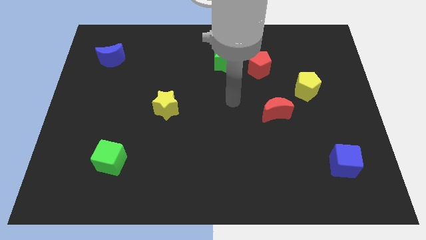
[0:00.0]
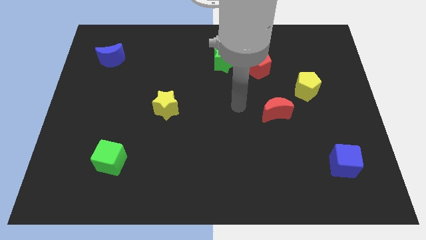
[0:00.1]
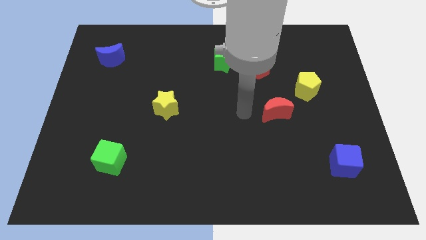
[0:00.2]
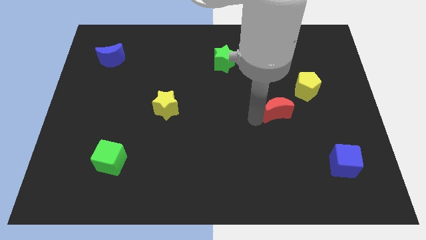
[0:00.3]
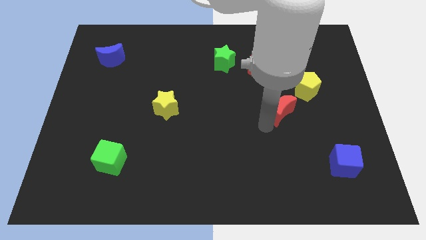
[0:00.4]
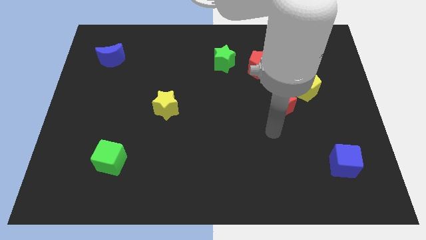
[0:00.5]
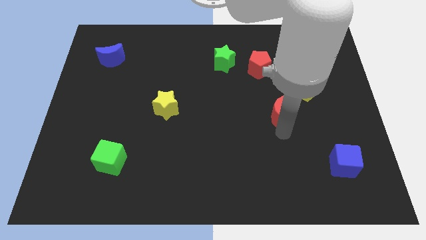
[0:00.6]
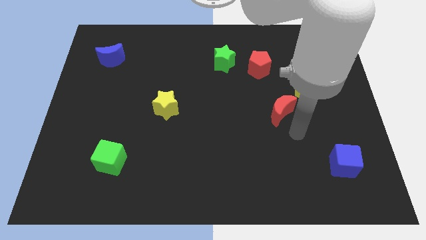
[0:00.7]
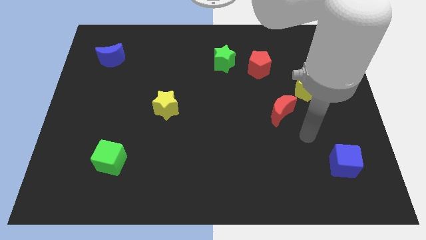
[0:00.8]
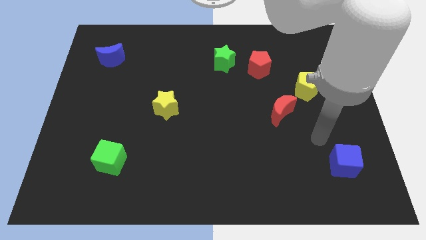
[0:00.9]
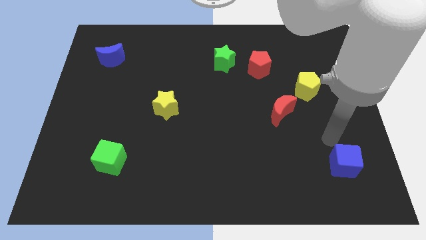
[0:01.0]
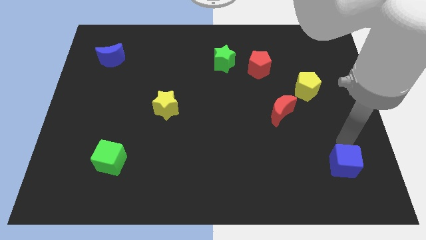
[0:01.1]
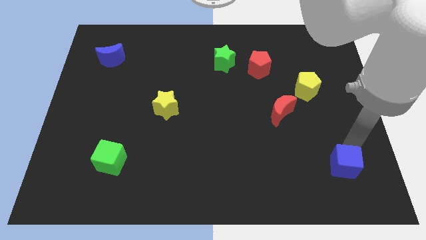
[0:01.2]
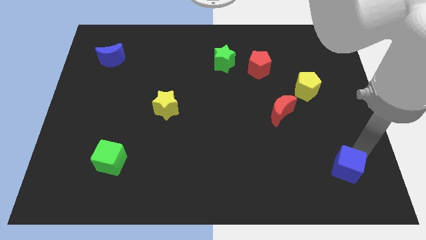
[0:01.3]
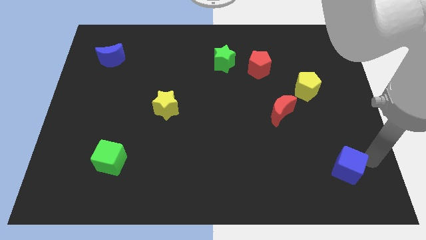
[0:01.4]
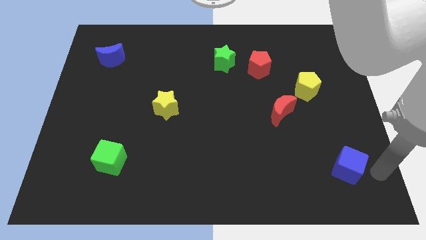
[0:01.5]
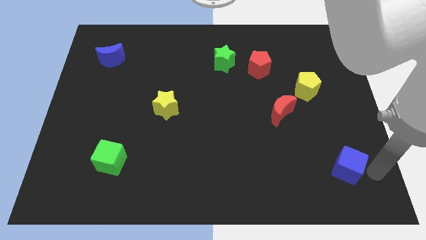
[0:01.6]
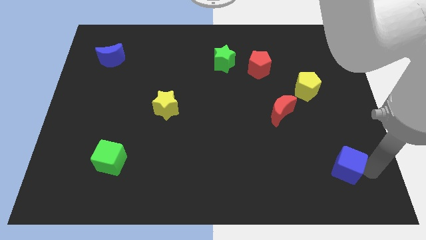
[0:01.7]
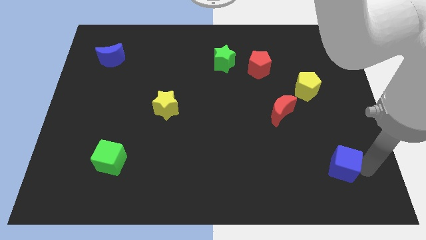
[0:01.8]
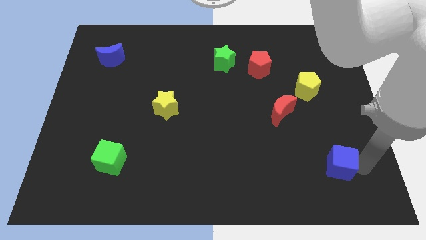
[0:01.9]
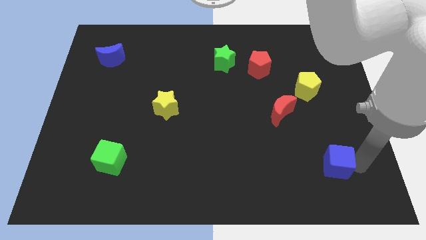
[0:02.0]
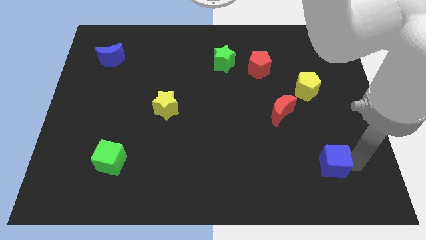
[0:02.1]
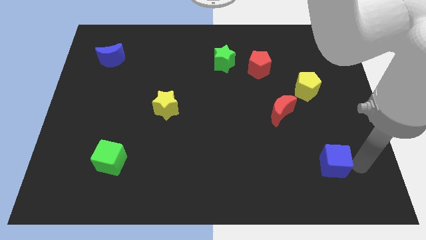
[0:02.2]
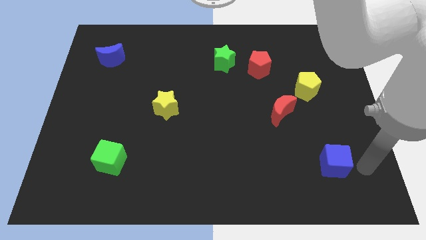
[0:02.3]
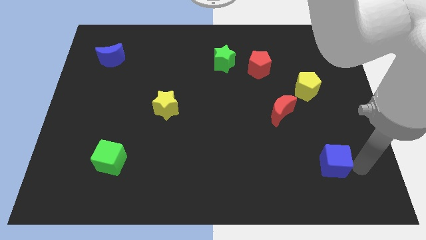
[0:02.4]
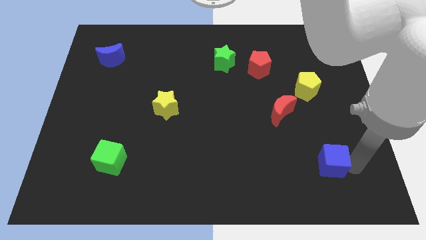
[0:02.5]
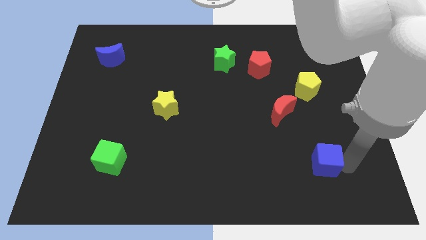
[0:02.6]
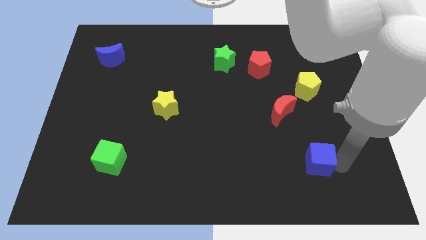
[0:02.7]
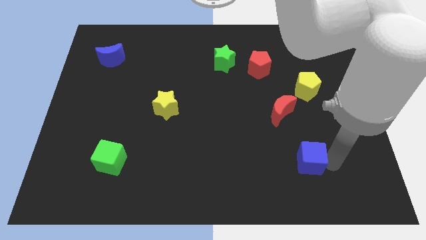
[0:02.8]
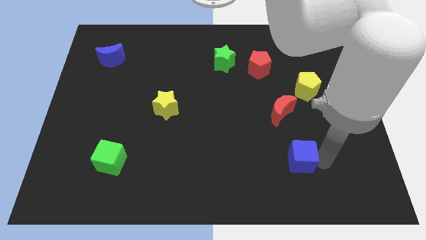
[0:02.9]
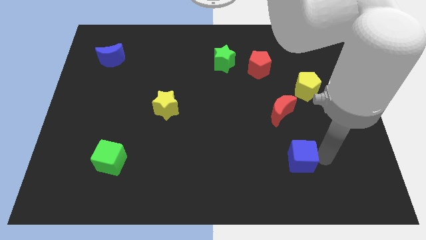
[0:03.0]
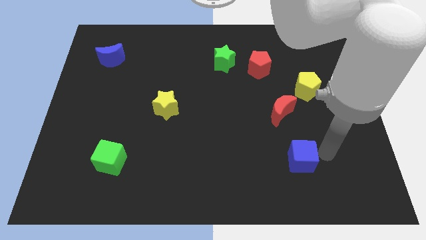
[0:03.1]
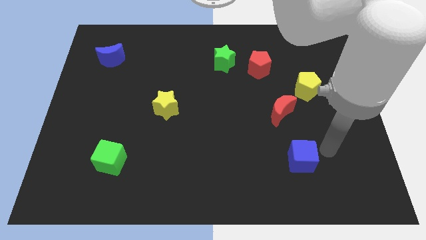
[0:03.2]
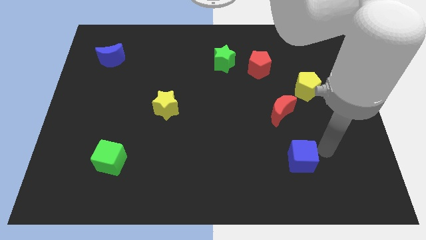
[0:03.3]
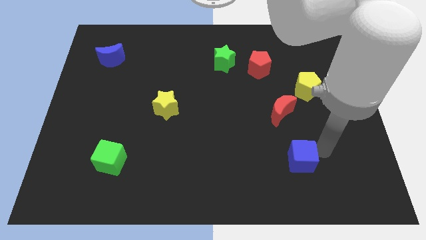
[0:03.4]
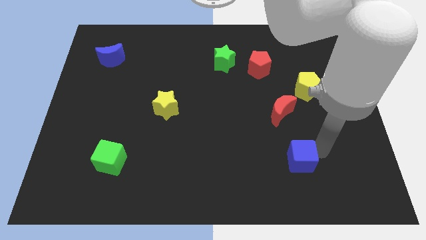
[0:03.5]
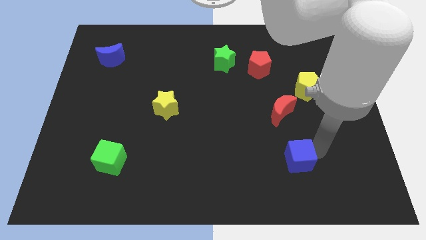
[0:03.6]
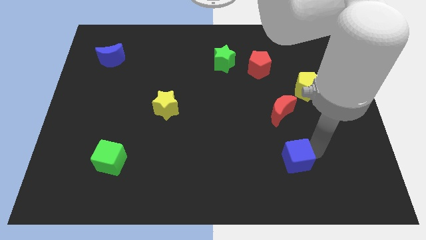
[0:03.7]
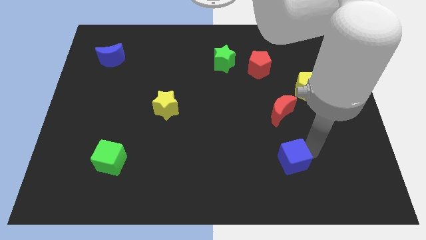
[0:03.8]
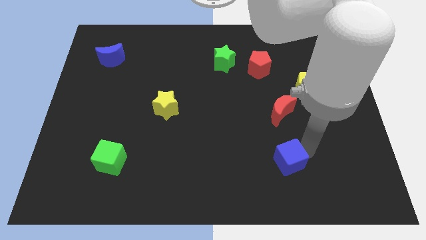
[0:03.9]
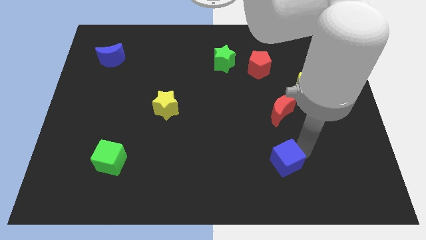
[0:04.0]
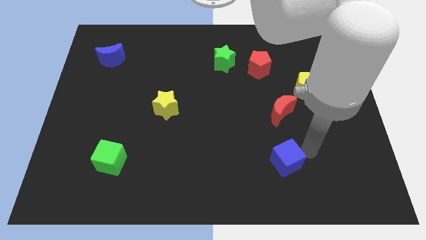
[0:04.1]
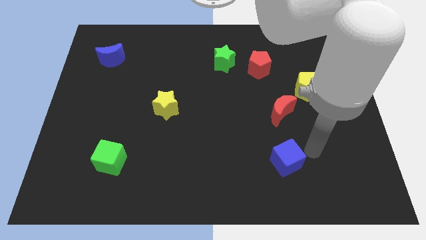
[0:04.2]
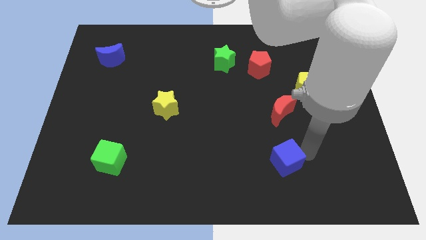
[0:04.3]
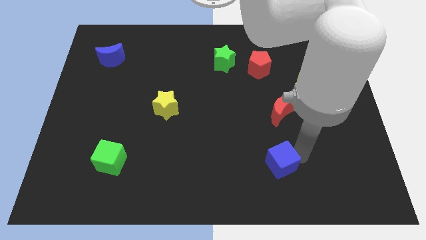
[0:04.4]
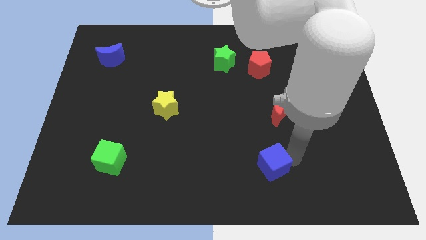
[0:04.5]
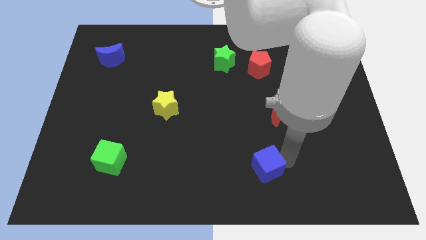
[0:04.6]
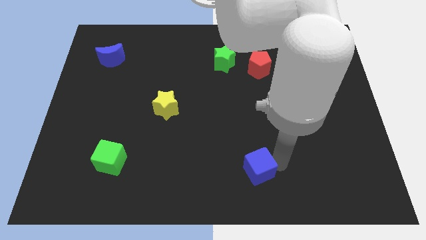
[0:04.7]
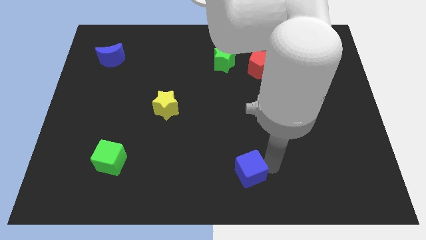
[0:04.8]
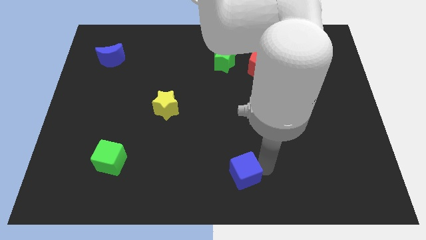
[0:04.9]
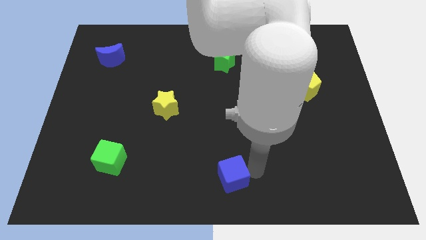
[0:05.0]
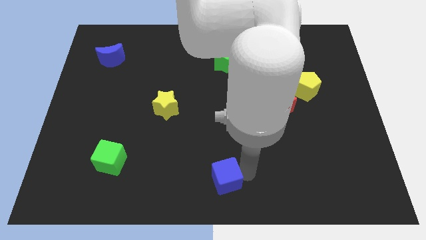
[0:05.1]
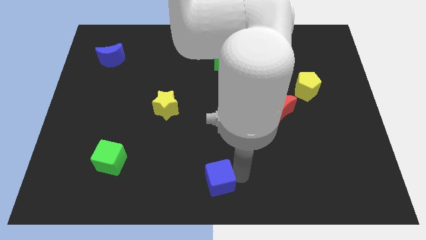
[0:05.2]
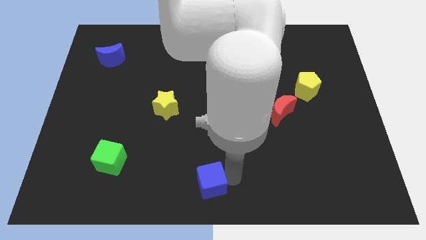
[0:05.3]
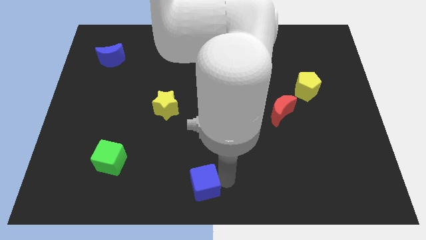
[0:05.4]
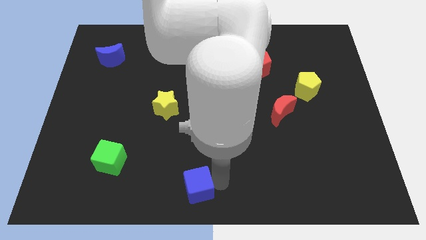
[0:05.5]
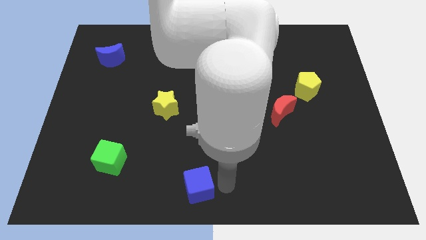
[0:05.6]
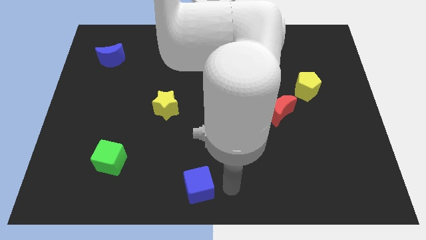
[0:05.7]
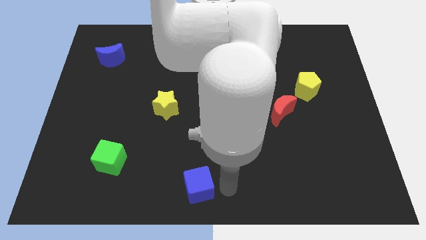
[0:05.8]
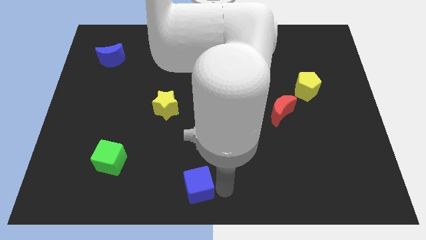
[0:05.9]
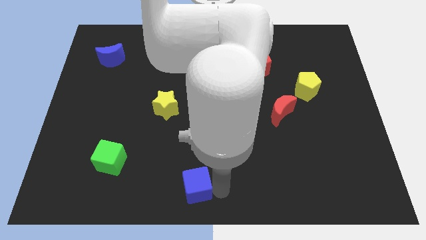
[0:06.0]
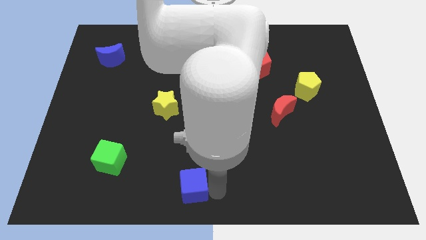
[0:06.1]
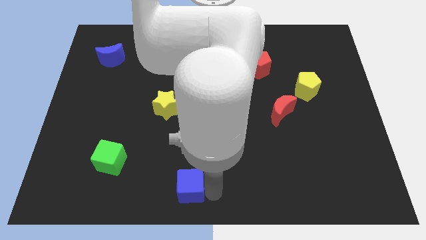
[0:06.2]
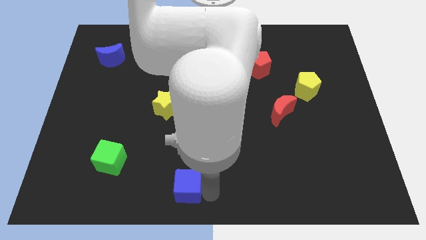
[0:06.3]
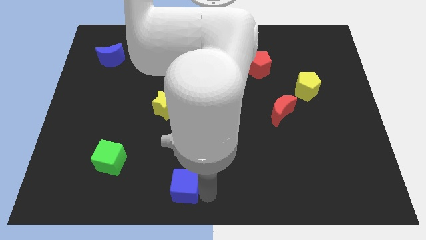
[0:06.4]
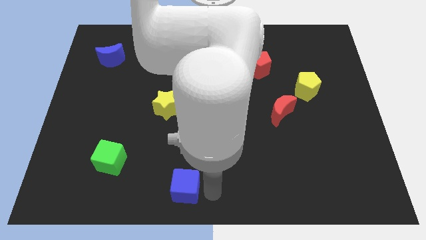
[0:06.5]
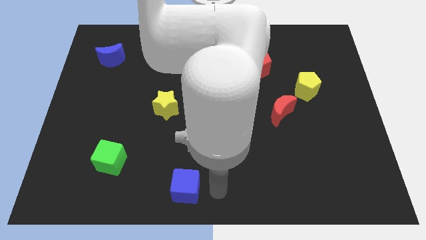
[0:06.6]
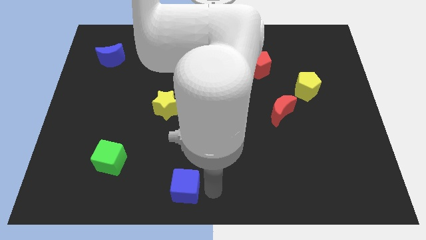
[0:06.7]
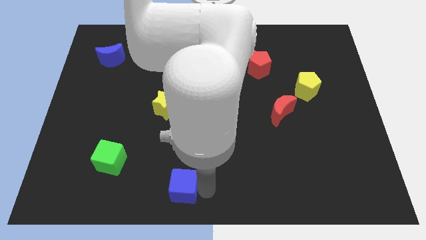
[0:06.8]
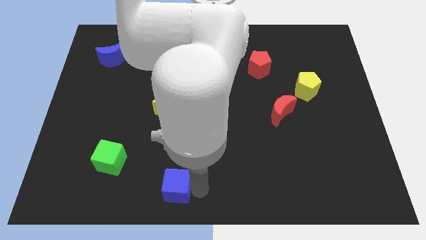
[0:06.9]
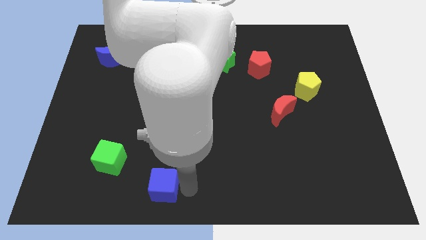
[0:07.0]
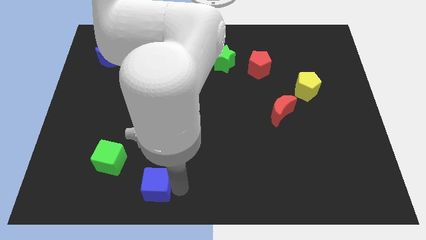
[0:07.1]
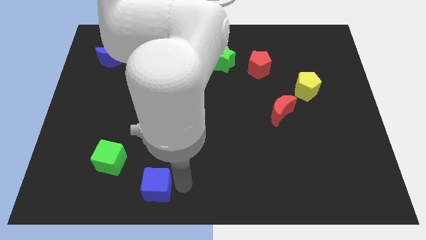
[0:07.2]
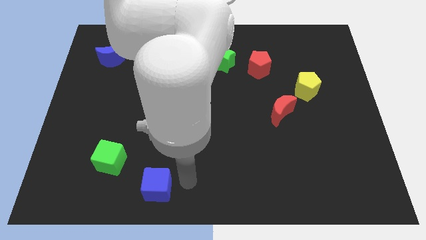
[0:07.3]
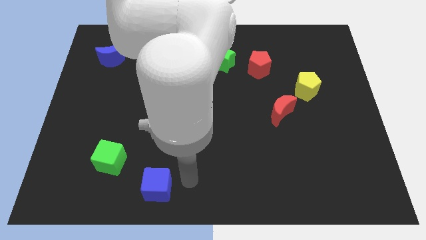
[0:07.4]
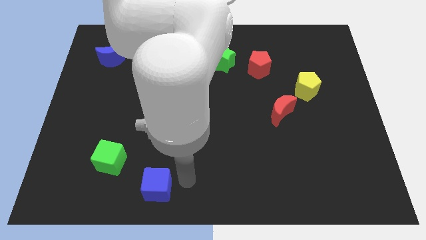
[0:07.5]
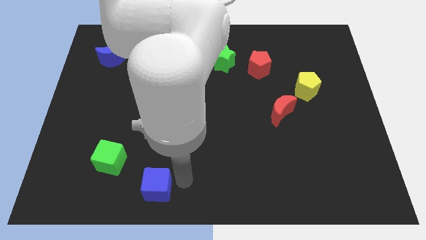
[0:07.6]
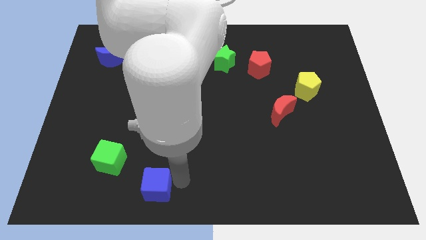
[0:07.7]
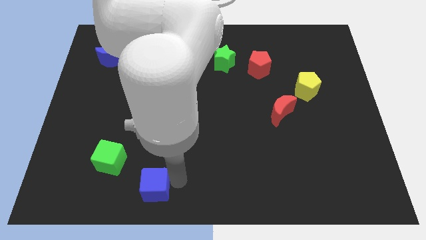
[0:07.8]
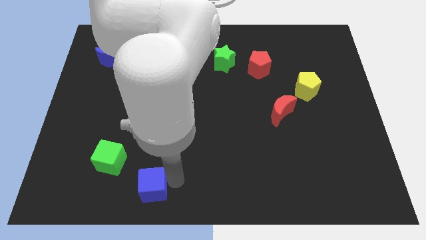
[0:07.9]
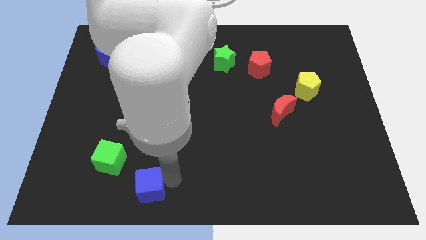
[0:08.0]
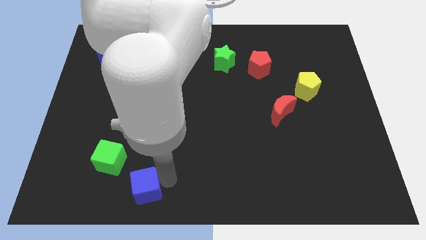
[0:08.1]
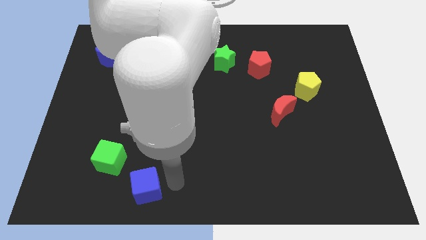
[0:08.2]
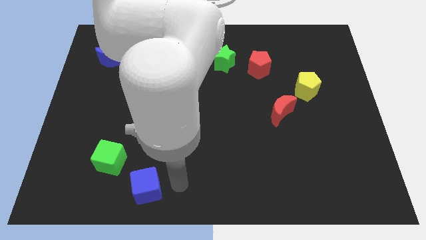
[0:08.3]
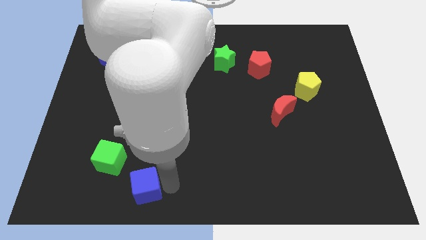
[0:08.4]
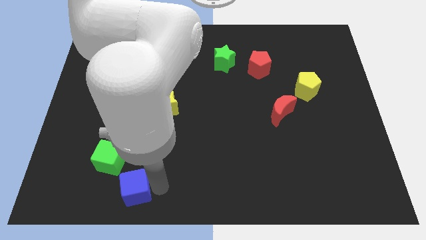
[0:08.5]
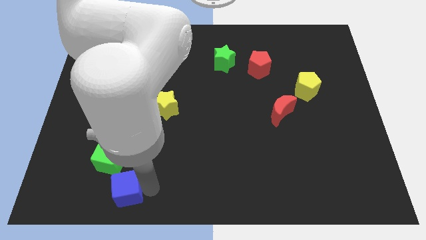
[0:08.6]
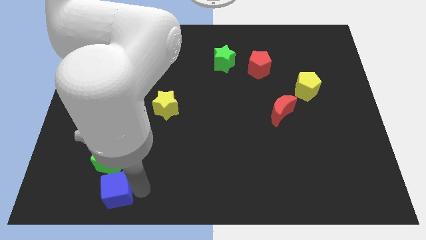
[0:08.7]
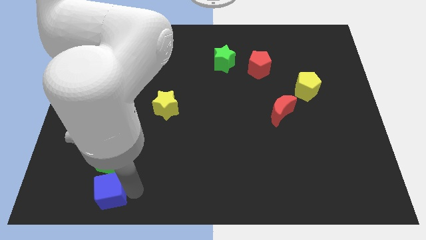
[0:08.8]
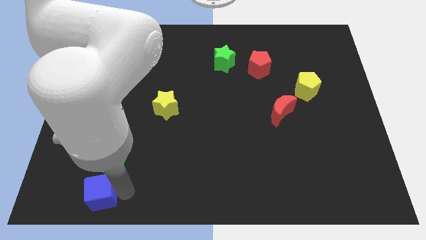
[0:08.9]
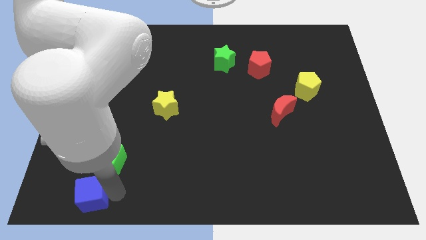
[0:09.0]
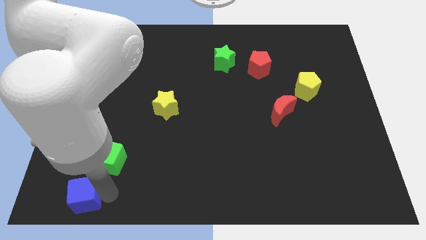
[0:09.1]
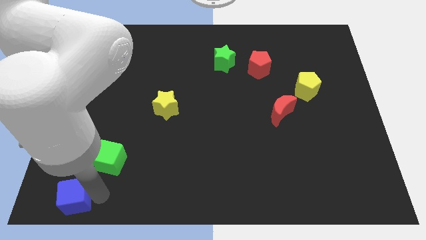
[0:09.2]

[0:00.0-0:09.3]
put the blue cube to the lower left corner
